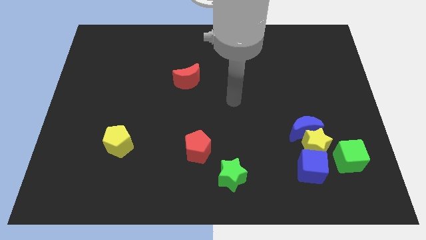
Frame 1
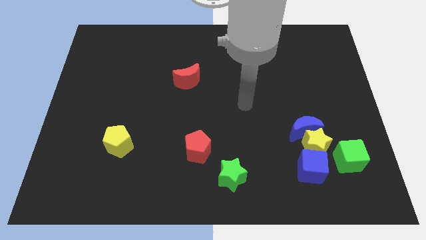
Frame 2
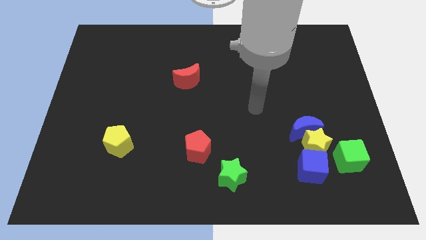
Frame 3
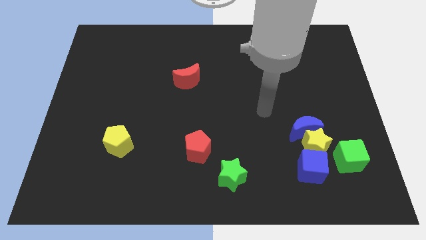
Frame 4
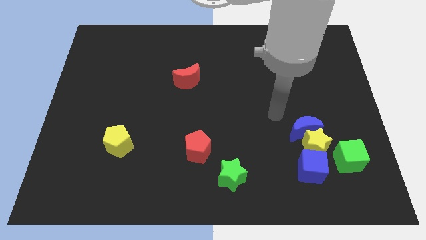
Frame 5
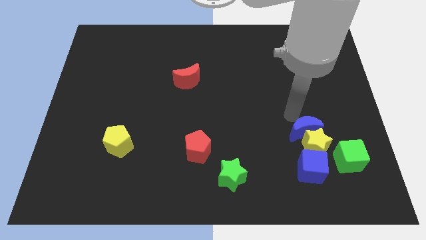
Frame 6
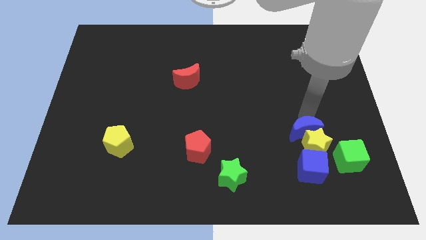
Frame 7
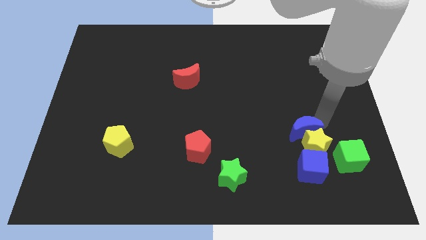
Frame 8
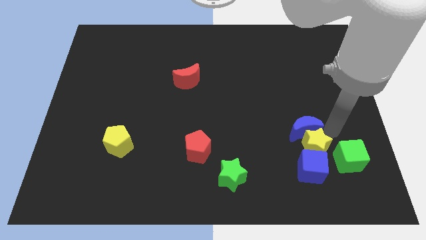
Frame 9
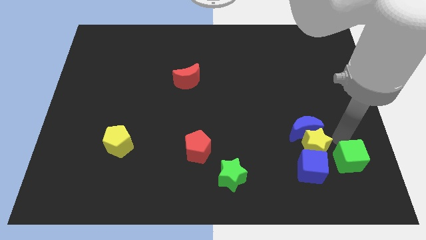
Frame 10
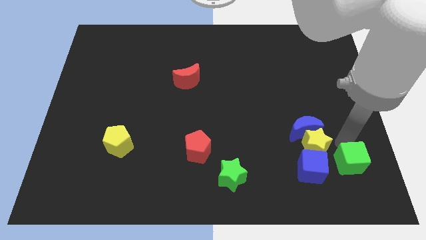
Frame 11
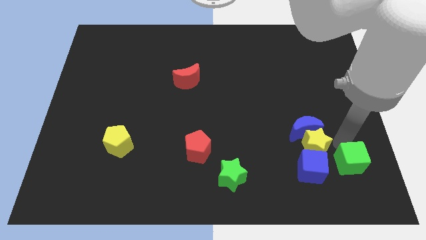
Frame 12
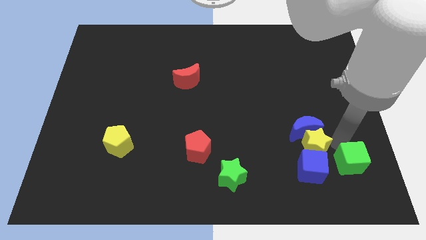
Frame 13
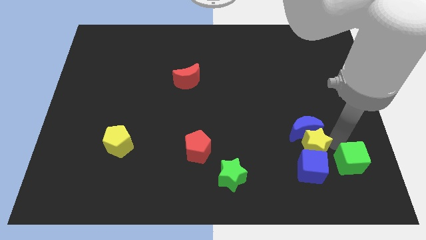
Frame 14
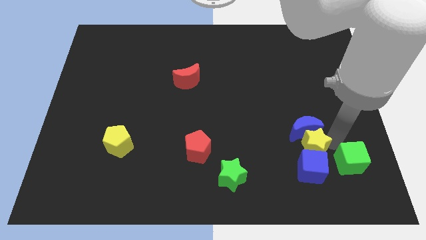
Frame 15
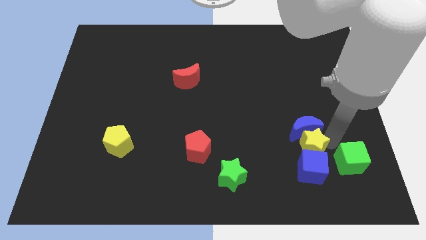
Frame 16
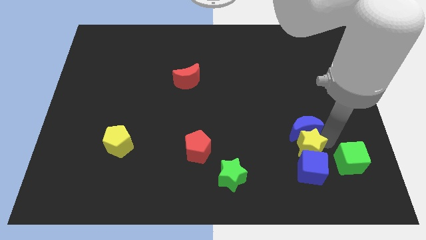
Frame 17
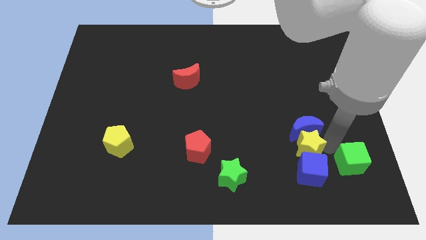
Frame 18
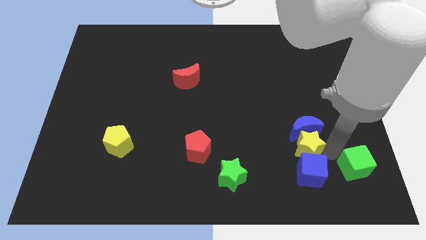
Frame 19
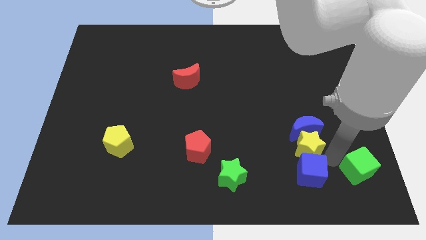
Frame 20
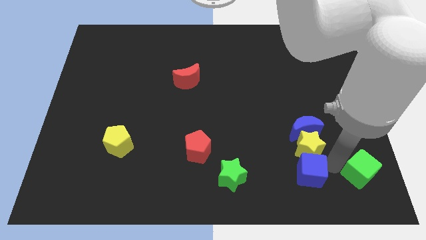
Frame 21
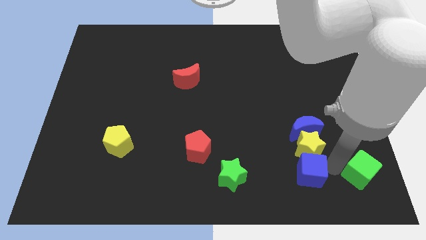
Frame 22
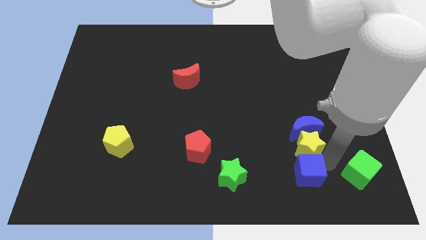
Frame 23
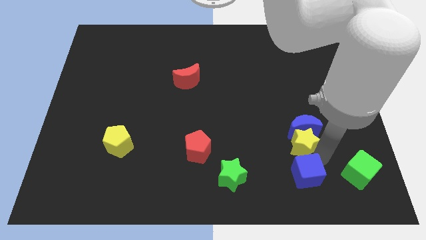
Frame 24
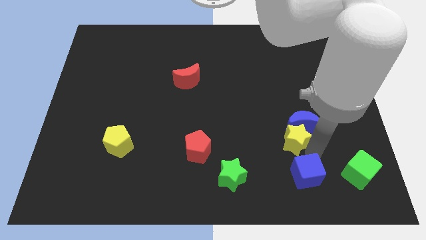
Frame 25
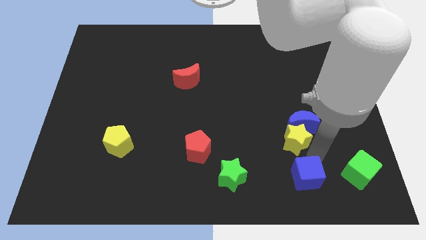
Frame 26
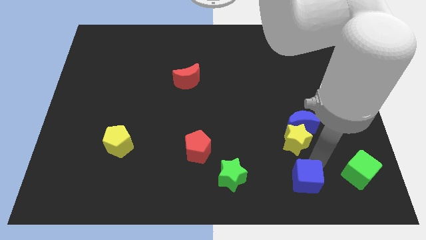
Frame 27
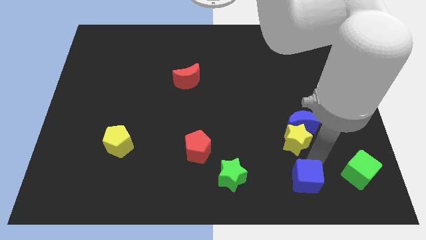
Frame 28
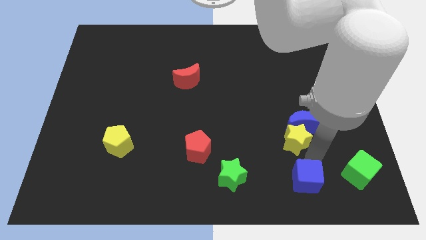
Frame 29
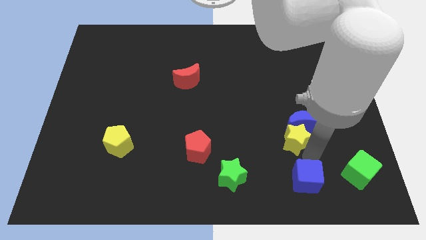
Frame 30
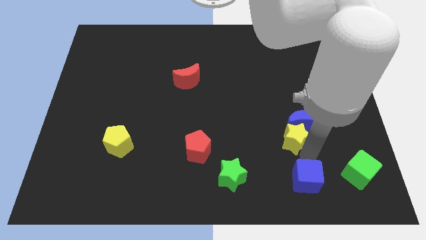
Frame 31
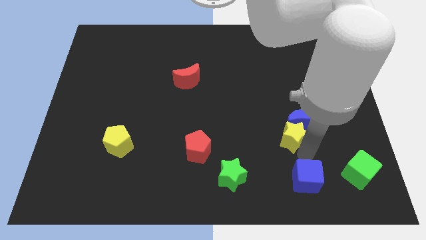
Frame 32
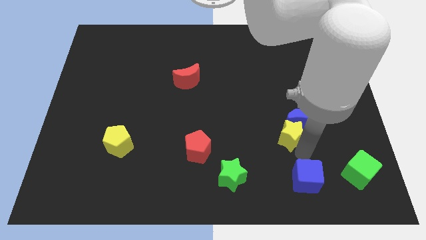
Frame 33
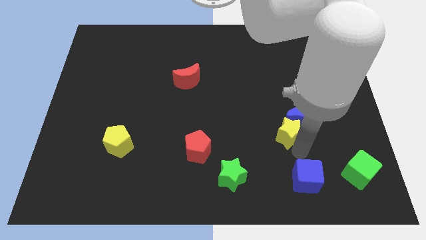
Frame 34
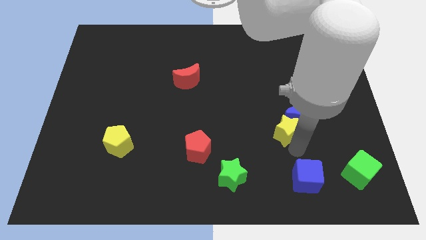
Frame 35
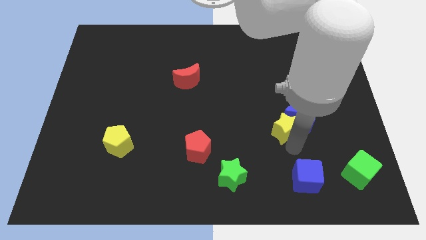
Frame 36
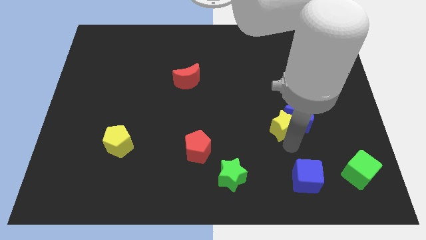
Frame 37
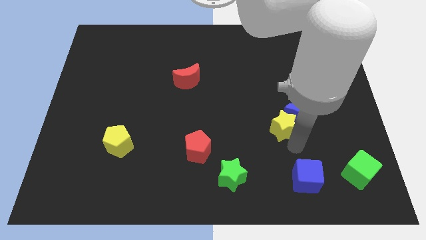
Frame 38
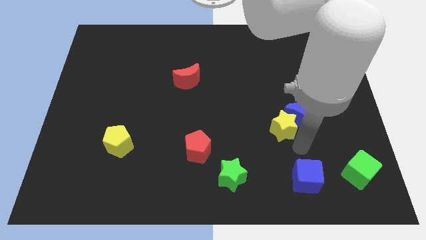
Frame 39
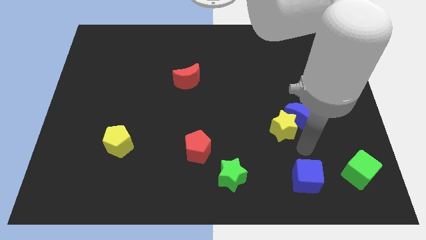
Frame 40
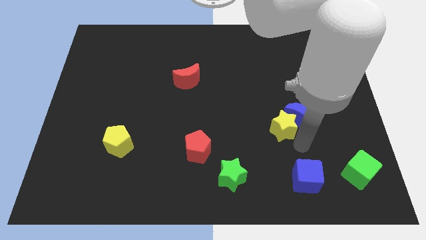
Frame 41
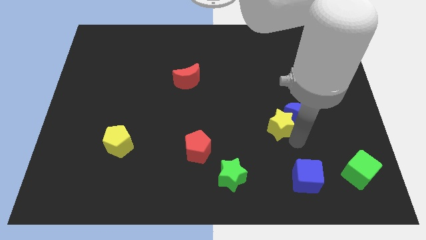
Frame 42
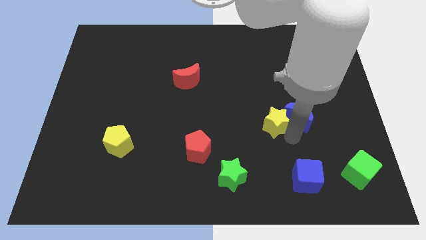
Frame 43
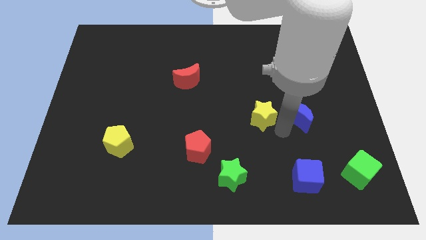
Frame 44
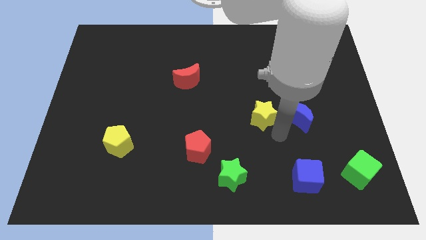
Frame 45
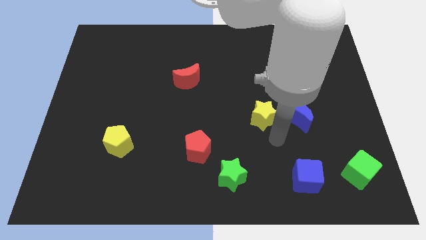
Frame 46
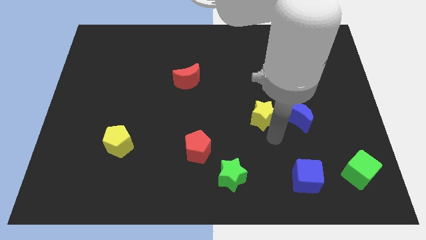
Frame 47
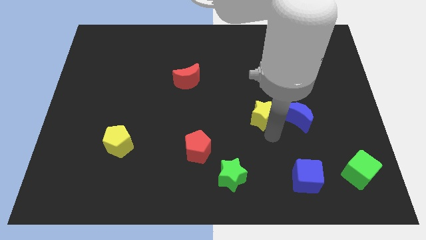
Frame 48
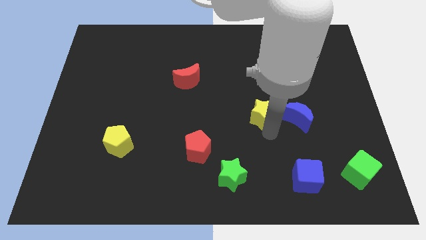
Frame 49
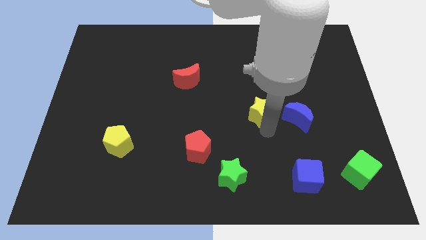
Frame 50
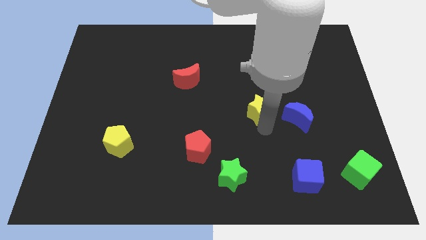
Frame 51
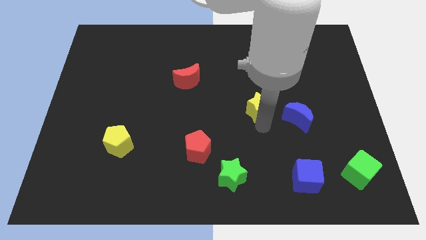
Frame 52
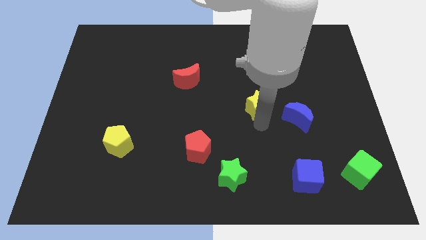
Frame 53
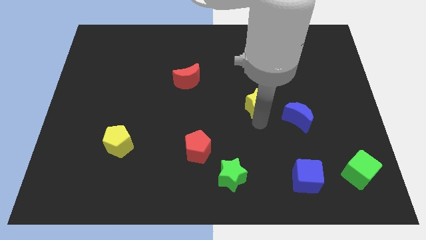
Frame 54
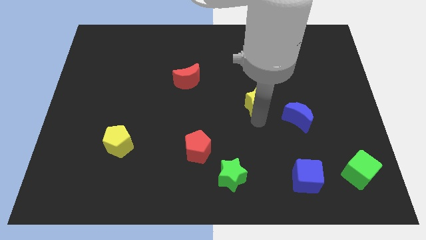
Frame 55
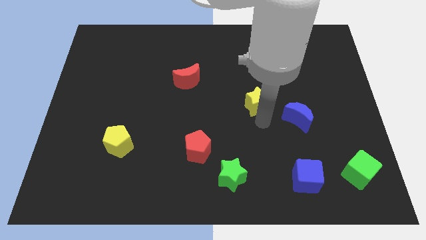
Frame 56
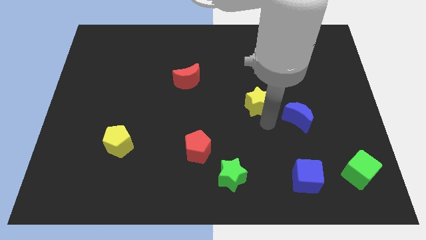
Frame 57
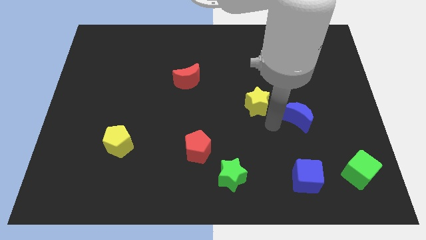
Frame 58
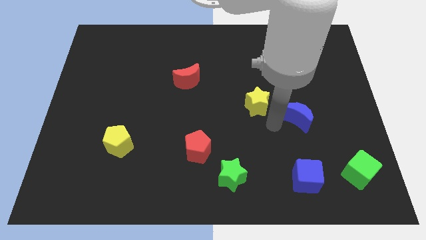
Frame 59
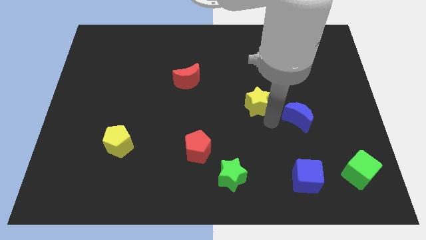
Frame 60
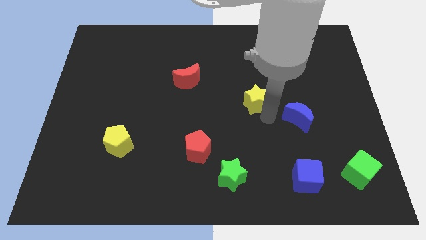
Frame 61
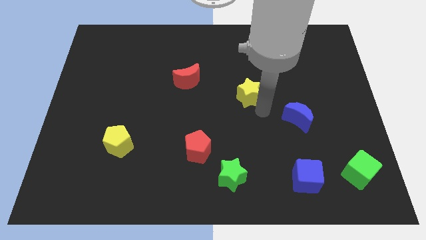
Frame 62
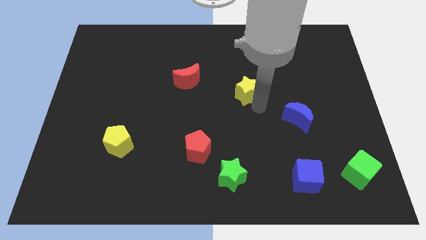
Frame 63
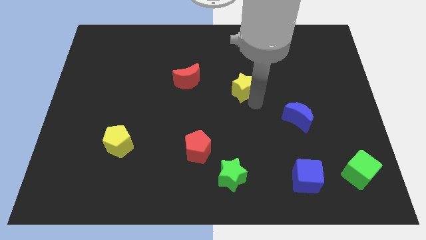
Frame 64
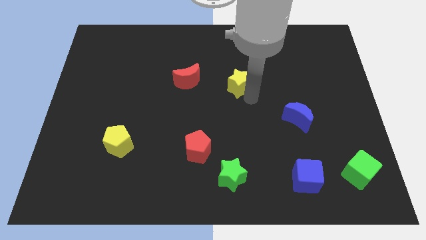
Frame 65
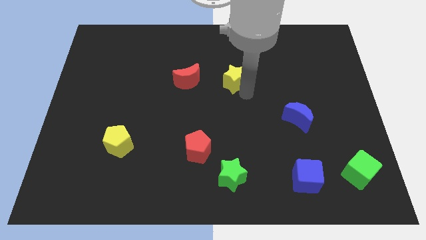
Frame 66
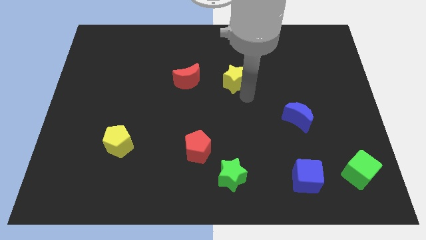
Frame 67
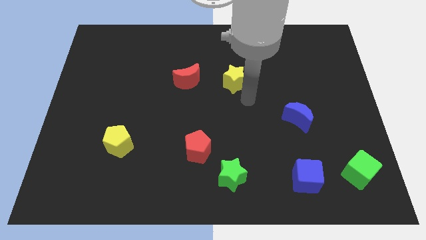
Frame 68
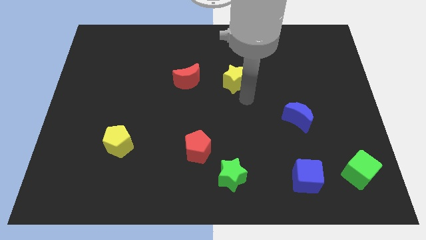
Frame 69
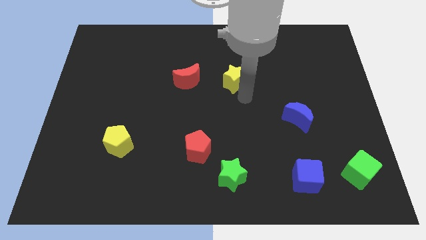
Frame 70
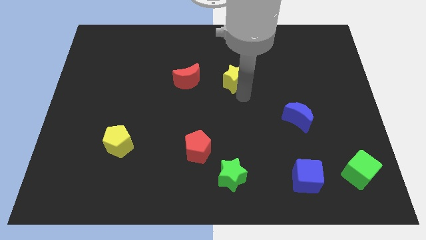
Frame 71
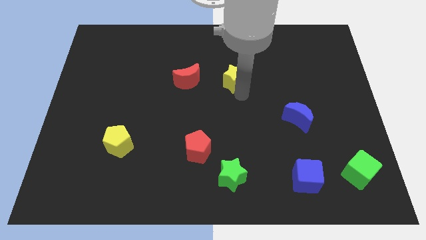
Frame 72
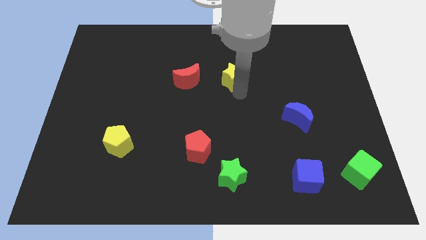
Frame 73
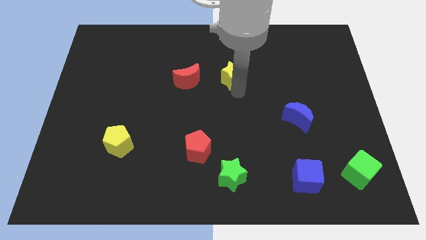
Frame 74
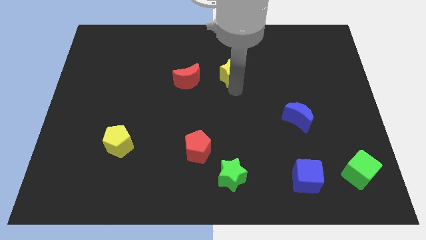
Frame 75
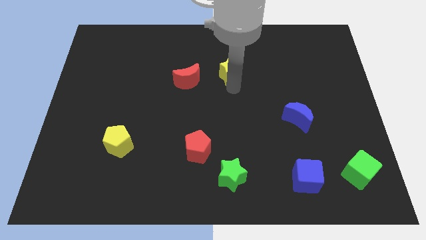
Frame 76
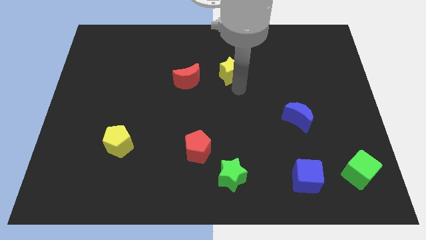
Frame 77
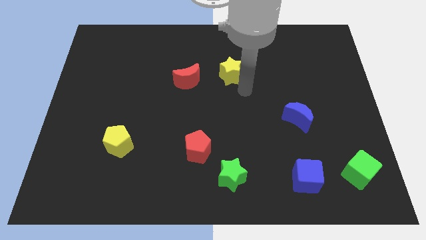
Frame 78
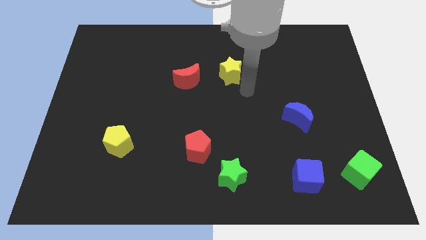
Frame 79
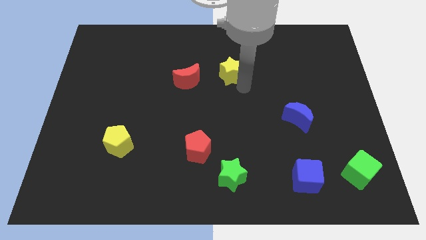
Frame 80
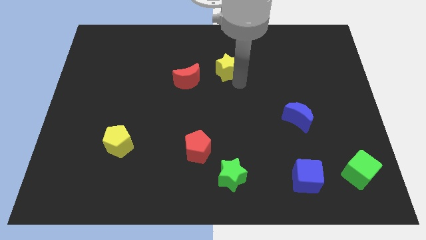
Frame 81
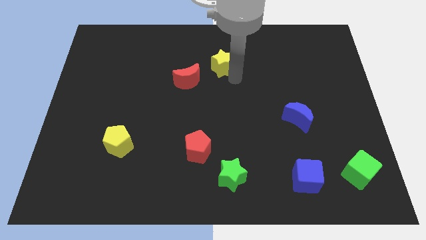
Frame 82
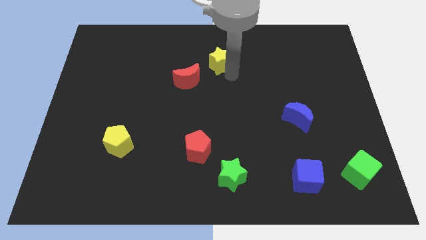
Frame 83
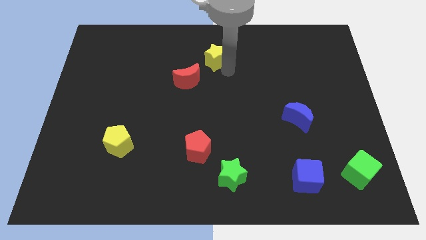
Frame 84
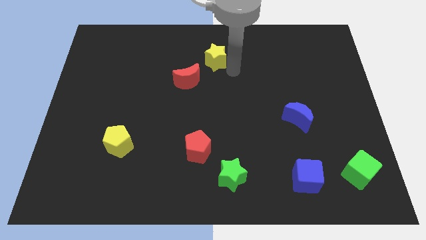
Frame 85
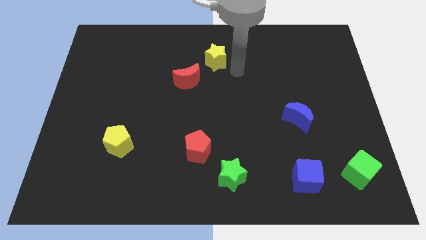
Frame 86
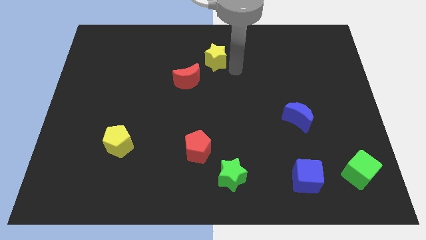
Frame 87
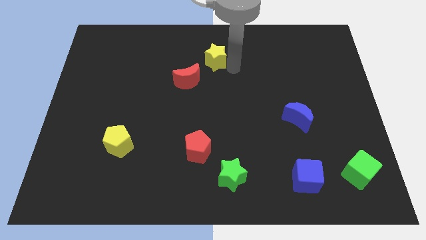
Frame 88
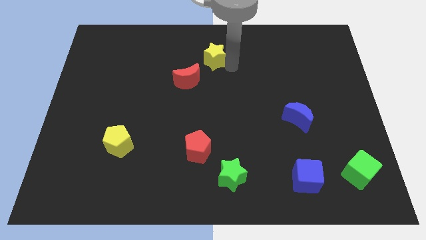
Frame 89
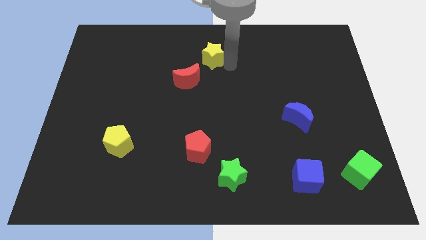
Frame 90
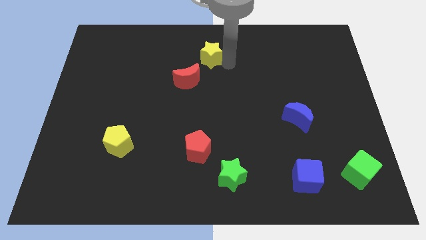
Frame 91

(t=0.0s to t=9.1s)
move the yellow star to the top
